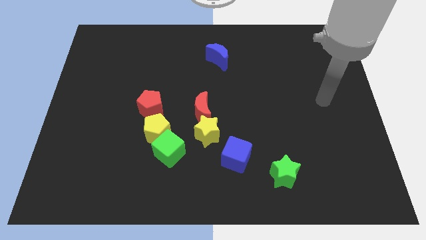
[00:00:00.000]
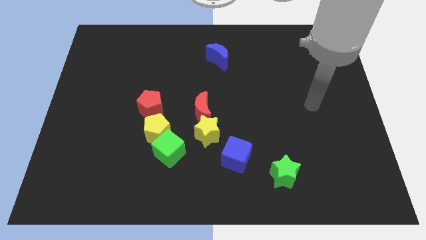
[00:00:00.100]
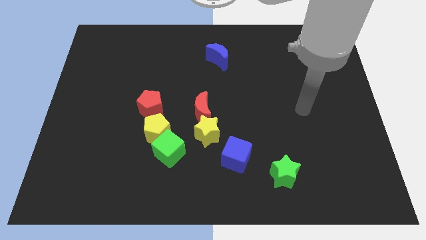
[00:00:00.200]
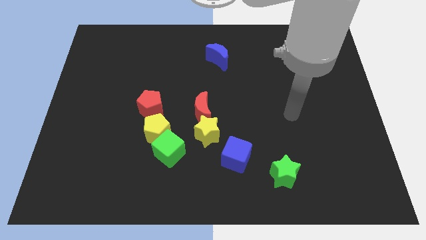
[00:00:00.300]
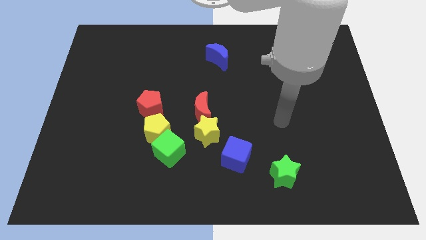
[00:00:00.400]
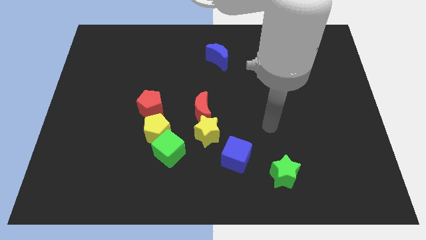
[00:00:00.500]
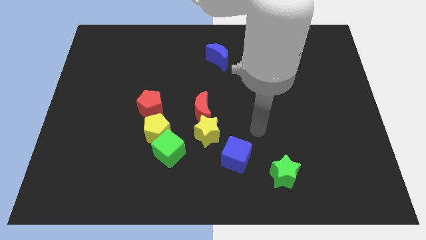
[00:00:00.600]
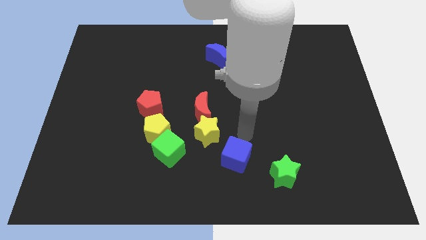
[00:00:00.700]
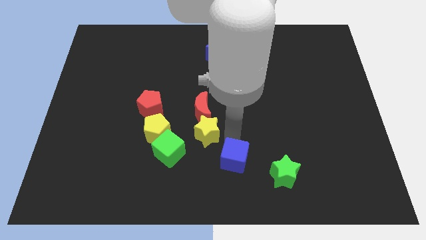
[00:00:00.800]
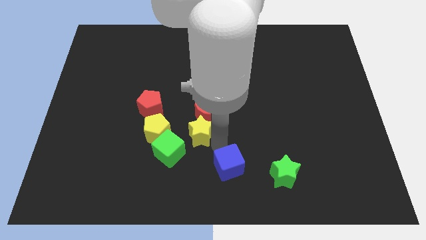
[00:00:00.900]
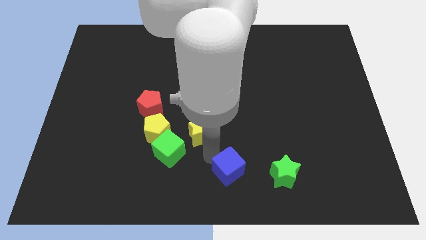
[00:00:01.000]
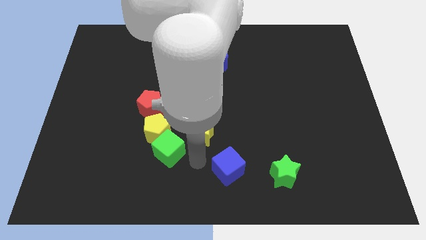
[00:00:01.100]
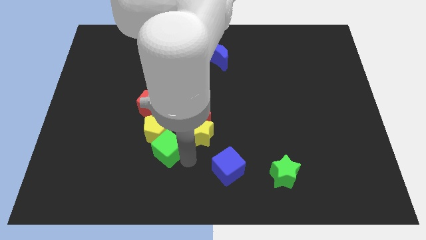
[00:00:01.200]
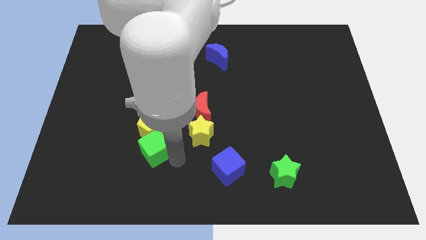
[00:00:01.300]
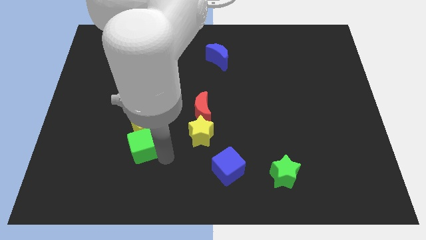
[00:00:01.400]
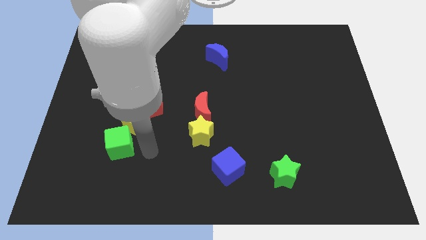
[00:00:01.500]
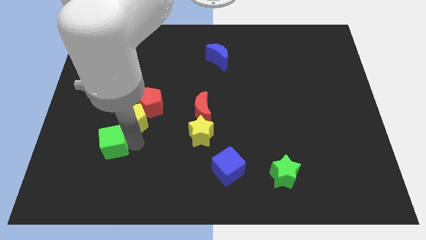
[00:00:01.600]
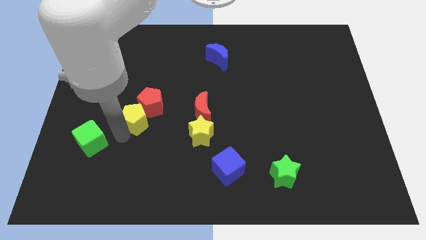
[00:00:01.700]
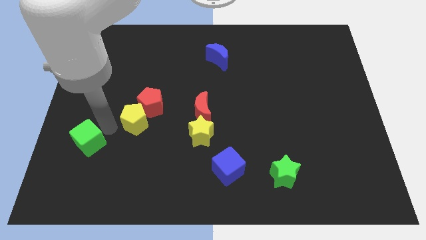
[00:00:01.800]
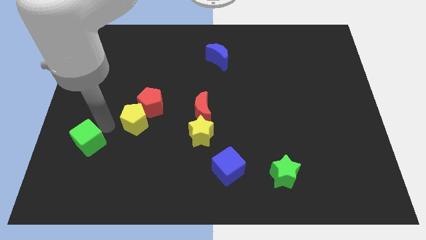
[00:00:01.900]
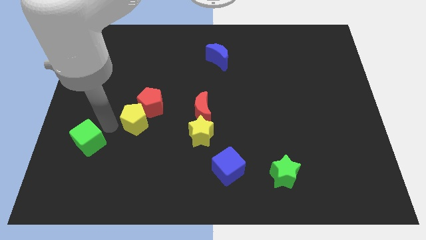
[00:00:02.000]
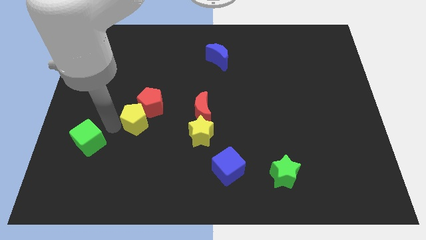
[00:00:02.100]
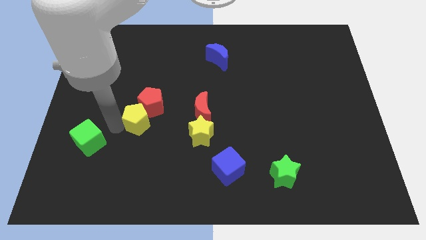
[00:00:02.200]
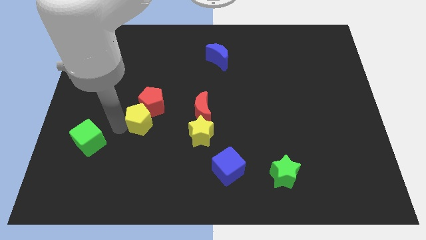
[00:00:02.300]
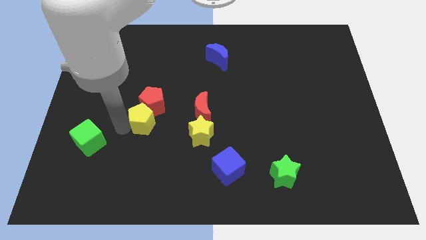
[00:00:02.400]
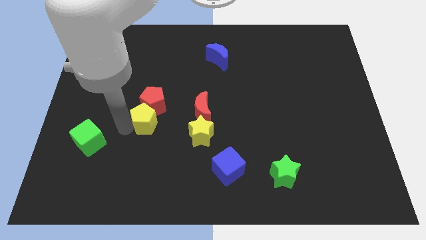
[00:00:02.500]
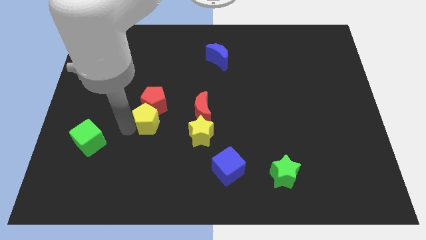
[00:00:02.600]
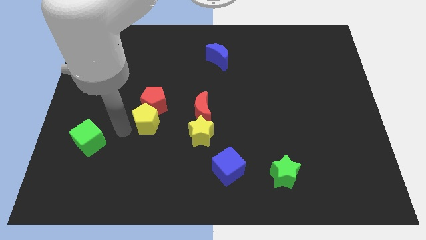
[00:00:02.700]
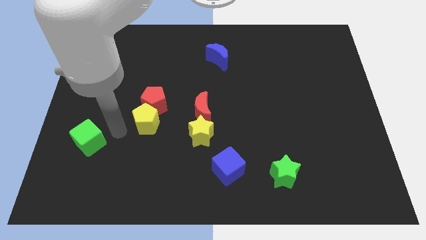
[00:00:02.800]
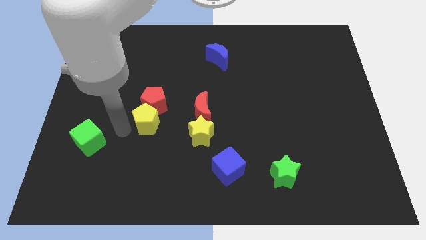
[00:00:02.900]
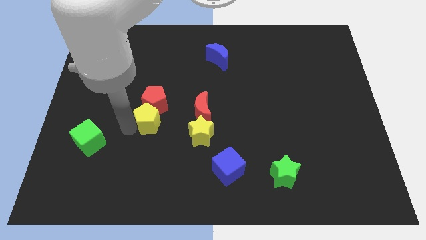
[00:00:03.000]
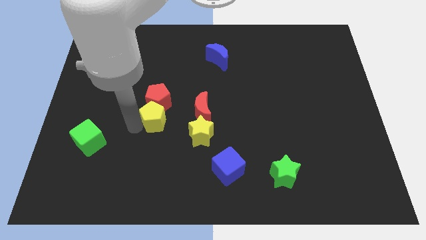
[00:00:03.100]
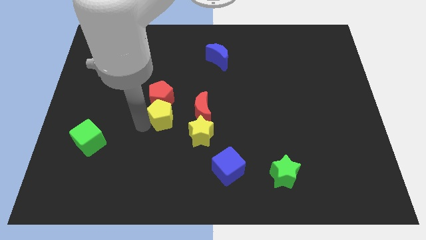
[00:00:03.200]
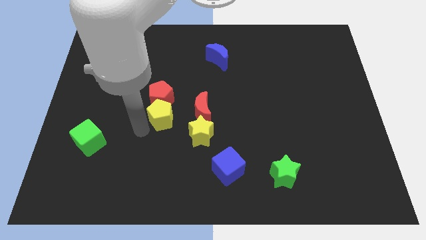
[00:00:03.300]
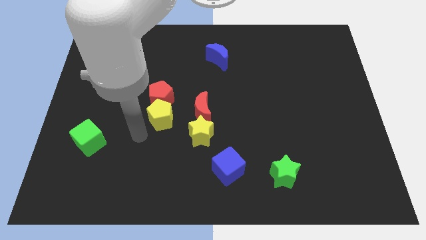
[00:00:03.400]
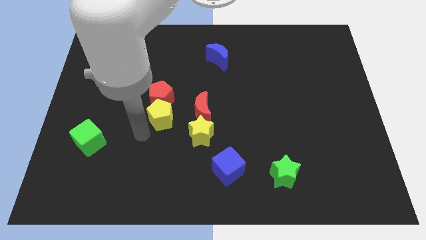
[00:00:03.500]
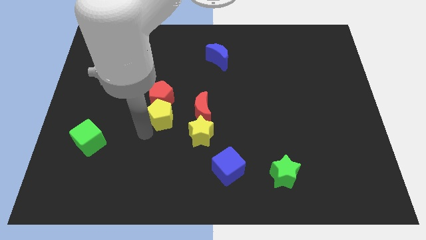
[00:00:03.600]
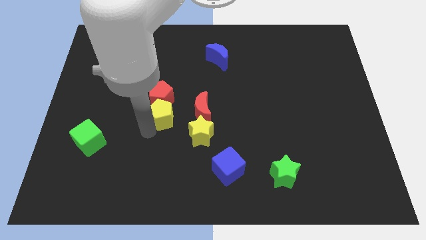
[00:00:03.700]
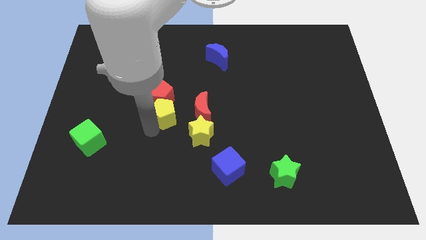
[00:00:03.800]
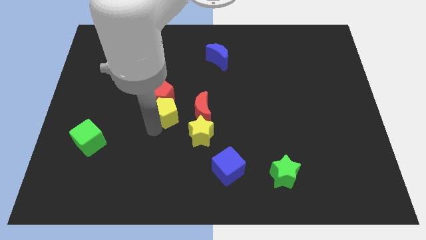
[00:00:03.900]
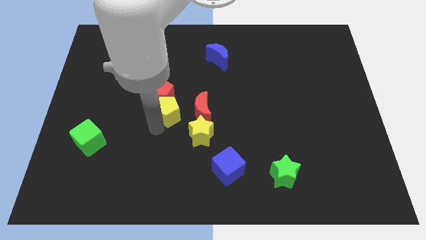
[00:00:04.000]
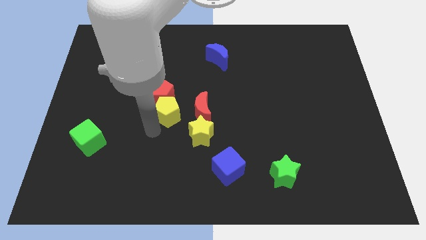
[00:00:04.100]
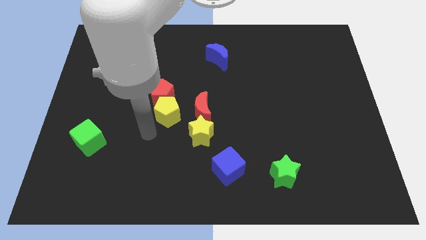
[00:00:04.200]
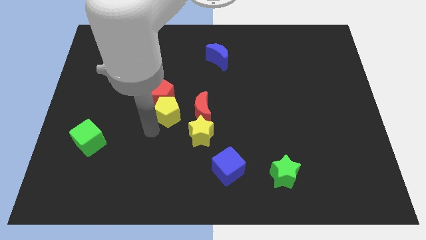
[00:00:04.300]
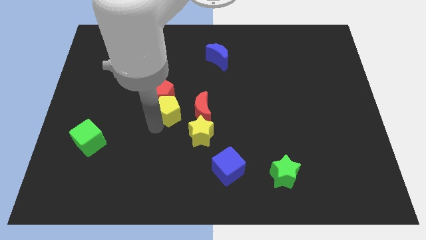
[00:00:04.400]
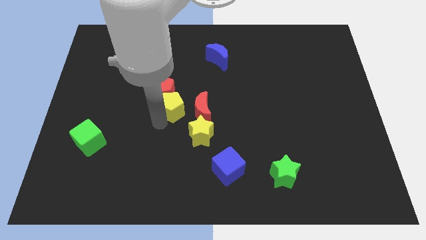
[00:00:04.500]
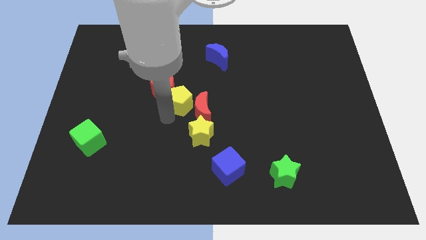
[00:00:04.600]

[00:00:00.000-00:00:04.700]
move the yellow pentagon a bit upwards

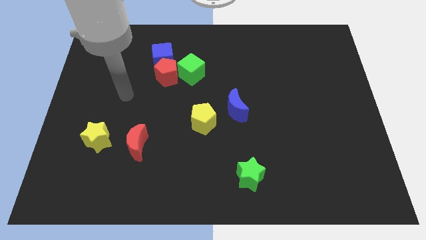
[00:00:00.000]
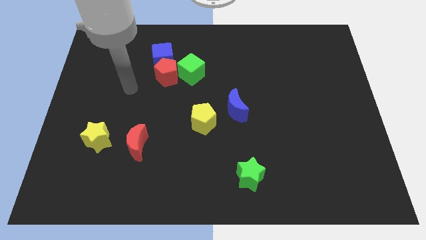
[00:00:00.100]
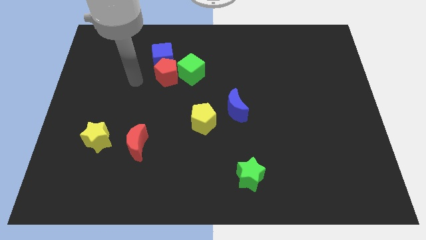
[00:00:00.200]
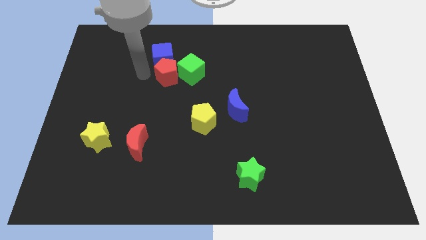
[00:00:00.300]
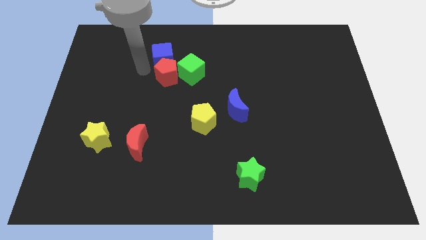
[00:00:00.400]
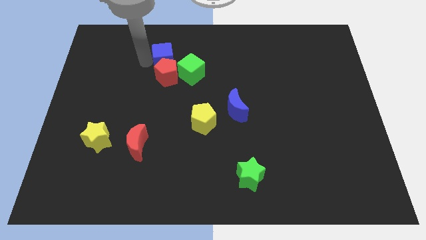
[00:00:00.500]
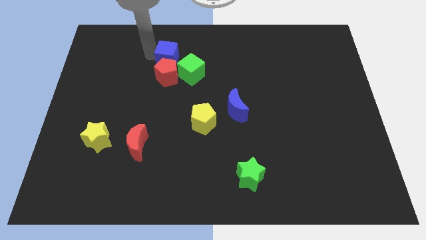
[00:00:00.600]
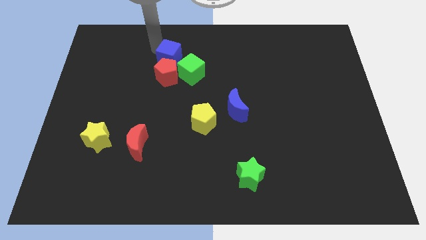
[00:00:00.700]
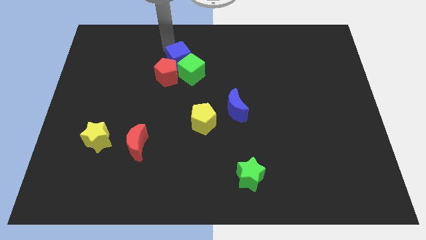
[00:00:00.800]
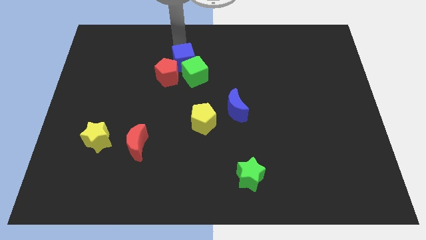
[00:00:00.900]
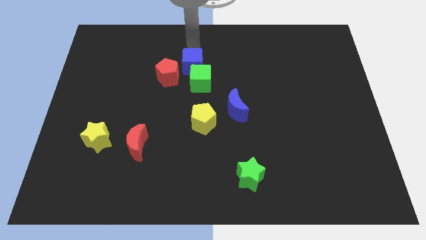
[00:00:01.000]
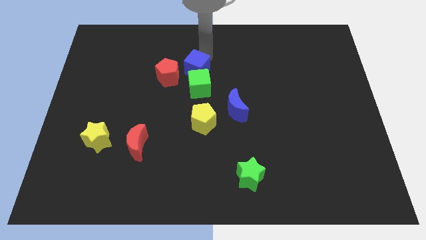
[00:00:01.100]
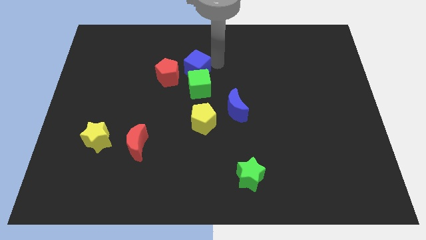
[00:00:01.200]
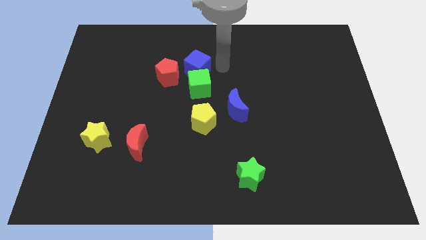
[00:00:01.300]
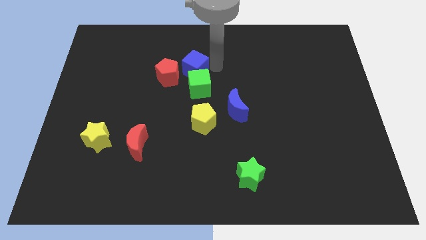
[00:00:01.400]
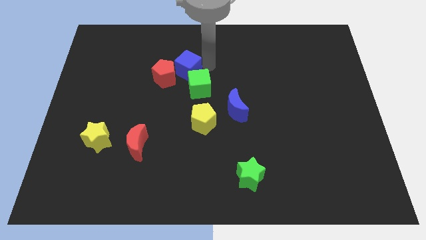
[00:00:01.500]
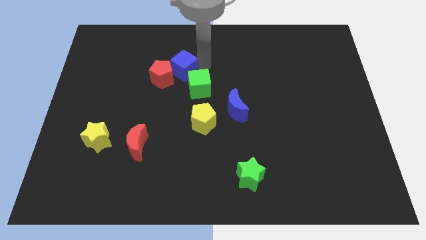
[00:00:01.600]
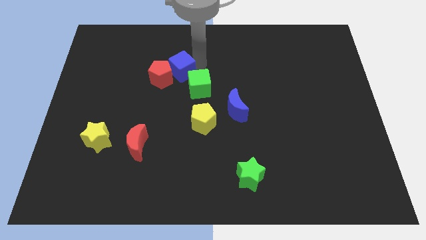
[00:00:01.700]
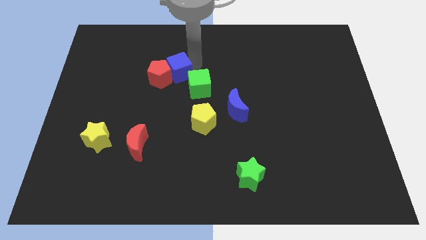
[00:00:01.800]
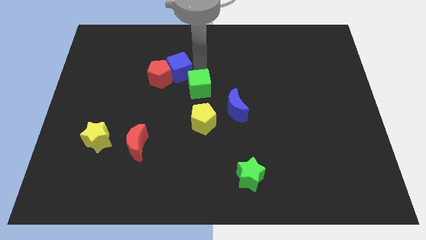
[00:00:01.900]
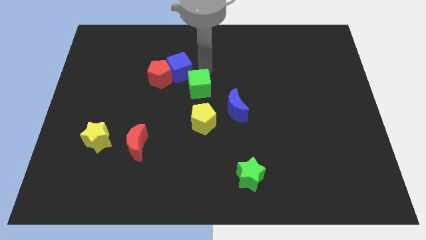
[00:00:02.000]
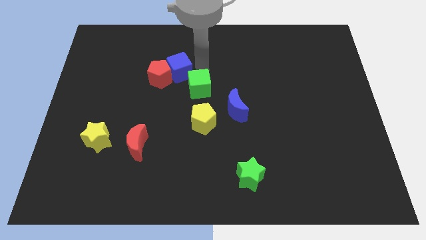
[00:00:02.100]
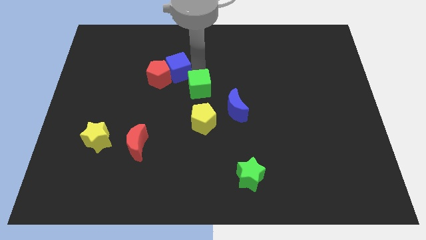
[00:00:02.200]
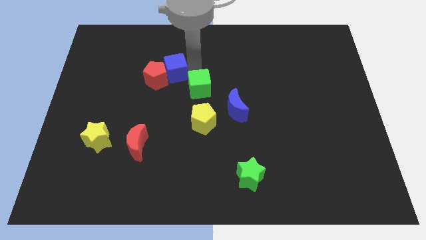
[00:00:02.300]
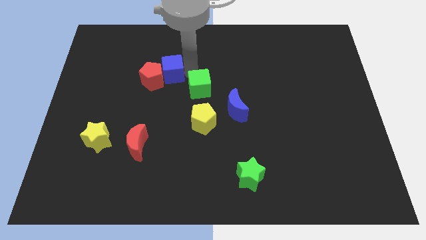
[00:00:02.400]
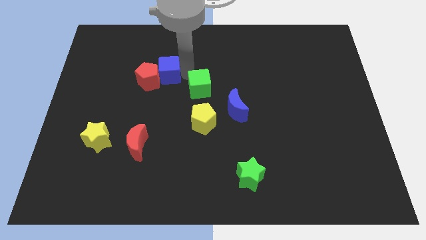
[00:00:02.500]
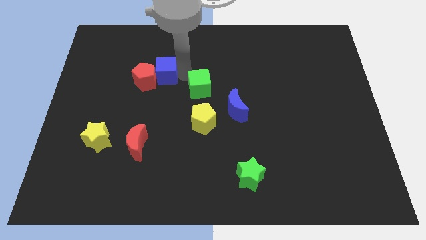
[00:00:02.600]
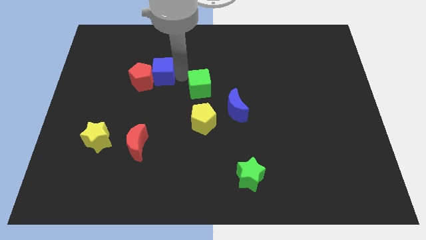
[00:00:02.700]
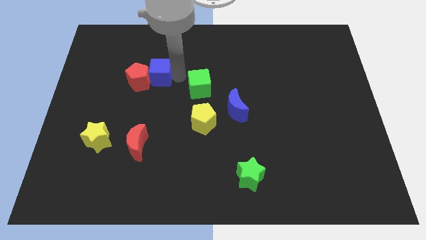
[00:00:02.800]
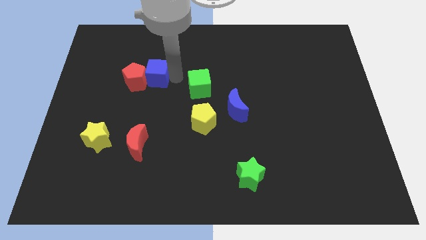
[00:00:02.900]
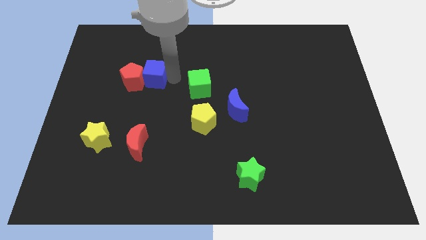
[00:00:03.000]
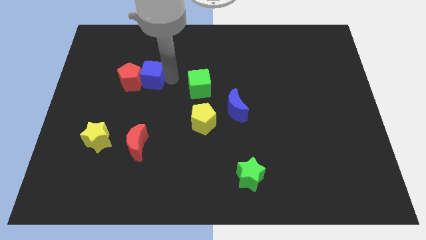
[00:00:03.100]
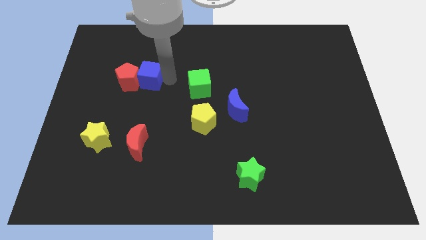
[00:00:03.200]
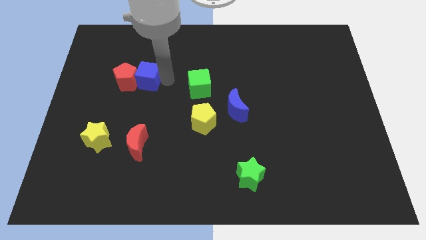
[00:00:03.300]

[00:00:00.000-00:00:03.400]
slightly move the blue cube down and to the left
